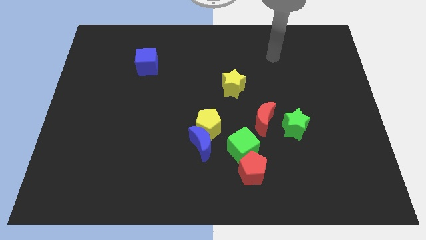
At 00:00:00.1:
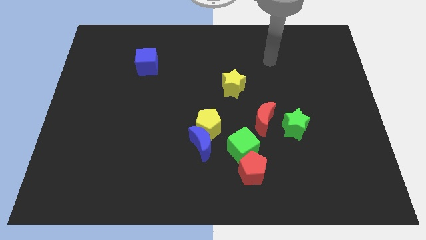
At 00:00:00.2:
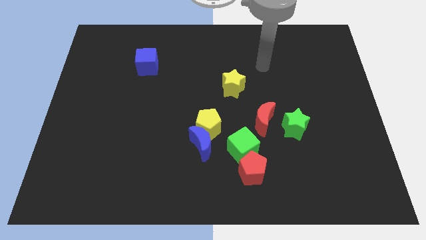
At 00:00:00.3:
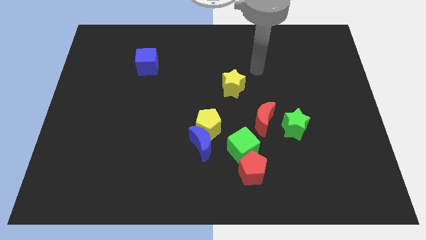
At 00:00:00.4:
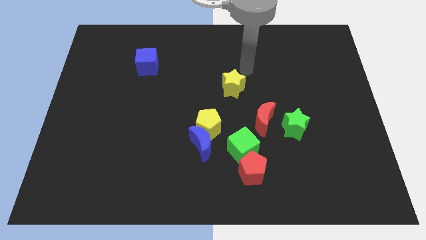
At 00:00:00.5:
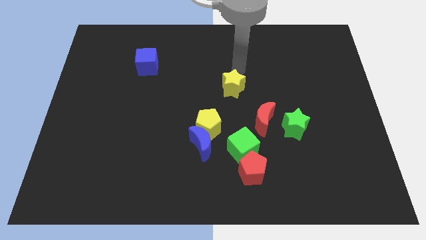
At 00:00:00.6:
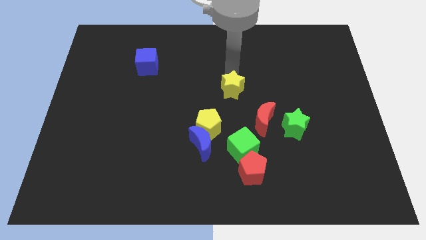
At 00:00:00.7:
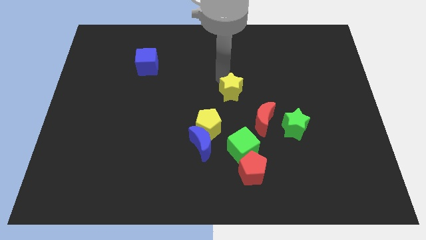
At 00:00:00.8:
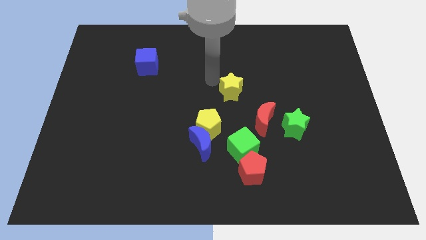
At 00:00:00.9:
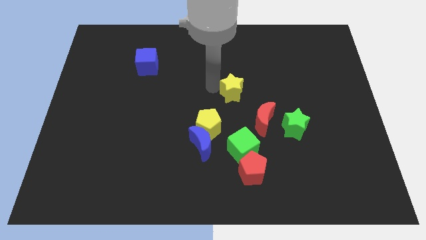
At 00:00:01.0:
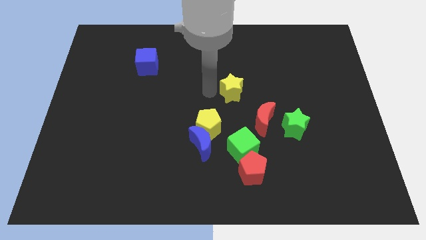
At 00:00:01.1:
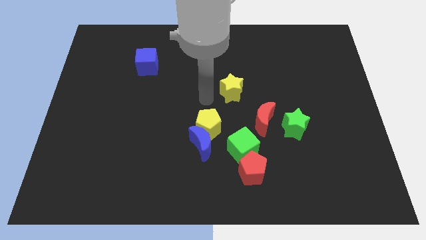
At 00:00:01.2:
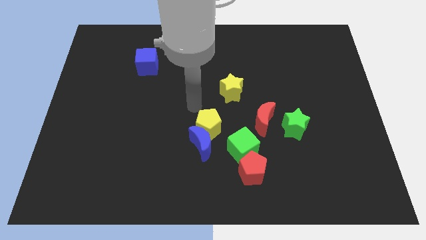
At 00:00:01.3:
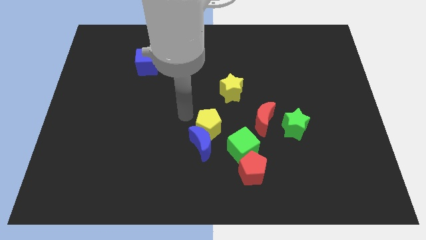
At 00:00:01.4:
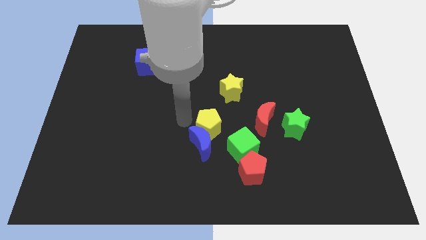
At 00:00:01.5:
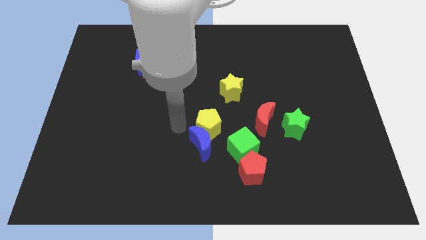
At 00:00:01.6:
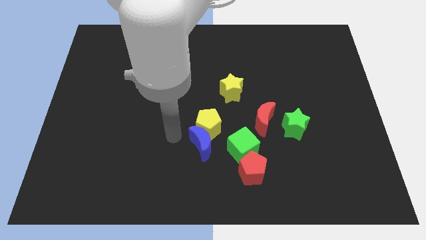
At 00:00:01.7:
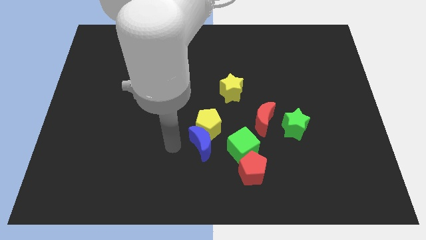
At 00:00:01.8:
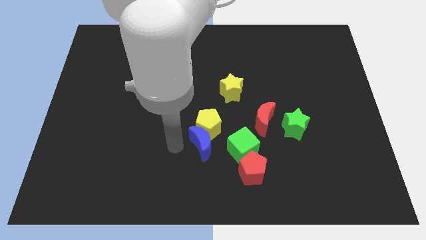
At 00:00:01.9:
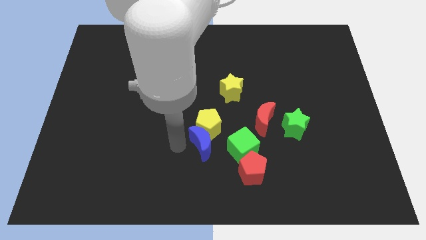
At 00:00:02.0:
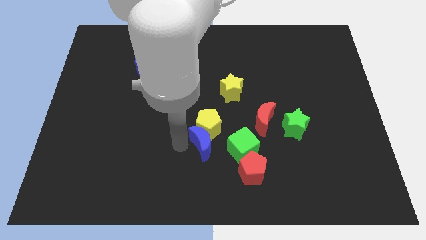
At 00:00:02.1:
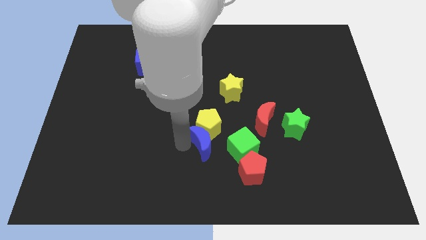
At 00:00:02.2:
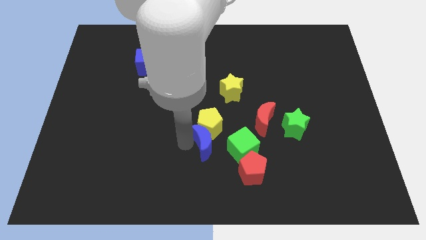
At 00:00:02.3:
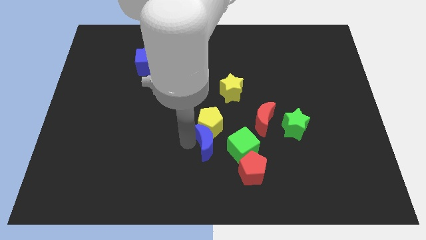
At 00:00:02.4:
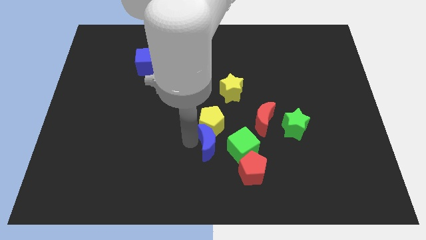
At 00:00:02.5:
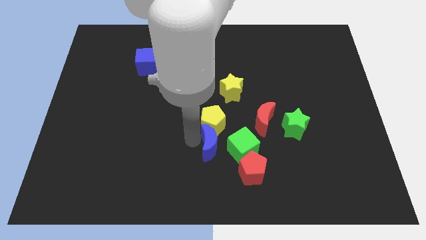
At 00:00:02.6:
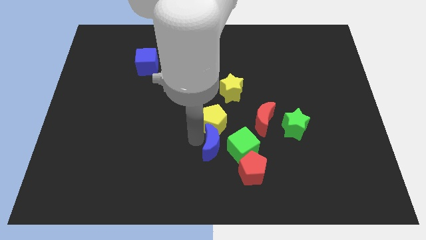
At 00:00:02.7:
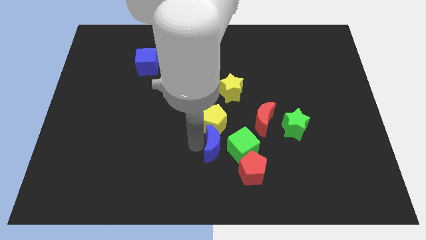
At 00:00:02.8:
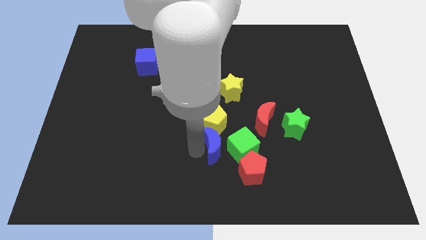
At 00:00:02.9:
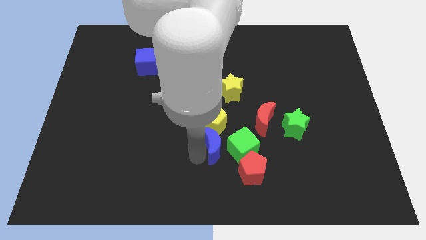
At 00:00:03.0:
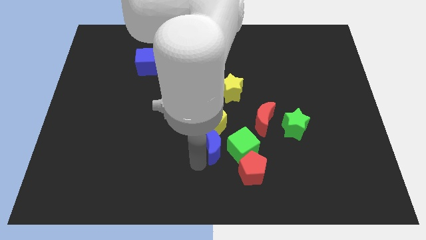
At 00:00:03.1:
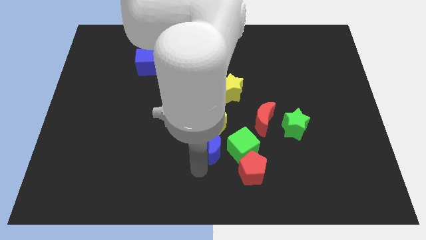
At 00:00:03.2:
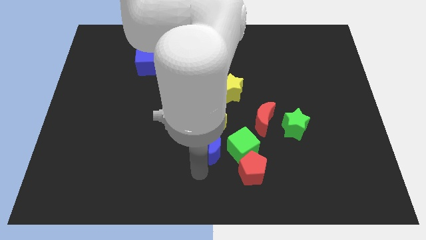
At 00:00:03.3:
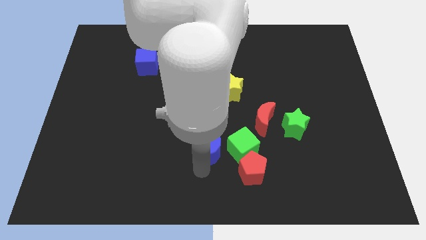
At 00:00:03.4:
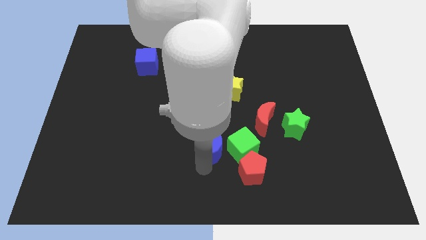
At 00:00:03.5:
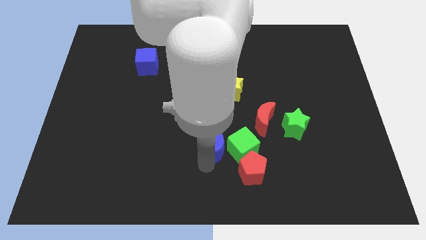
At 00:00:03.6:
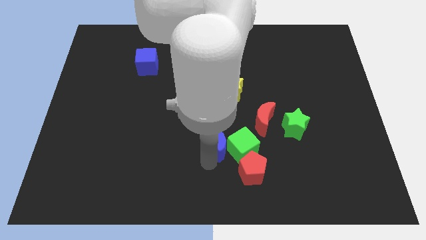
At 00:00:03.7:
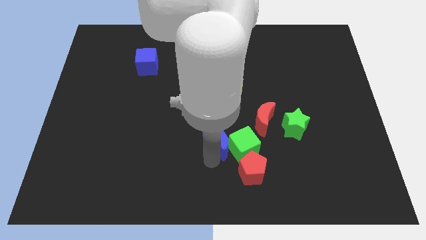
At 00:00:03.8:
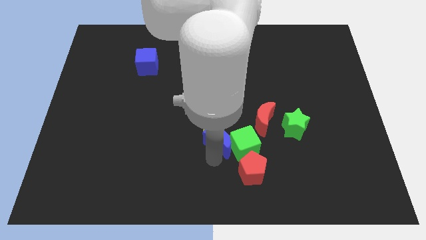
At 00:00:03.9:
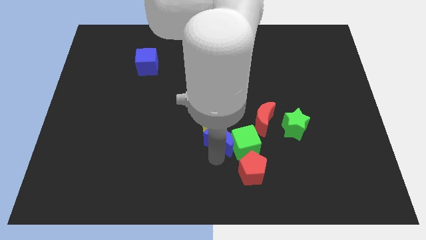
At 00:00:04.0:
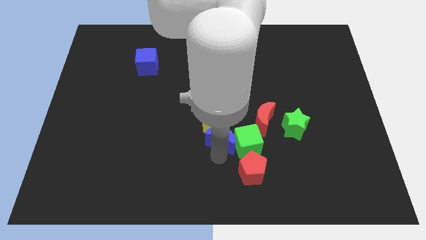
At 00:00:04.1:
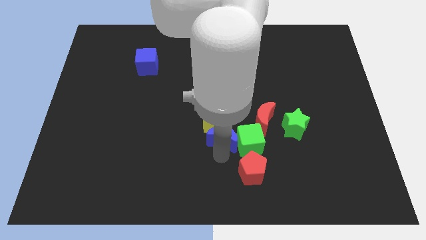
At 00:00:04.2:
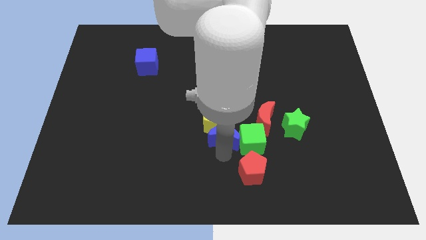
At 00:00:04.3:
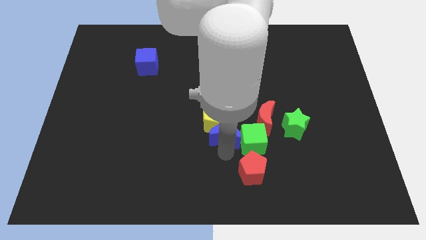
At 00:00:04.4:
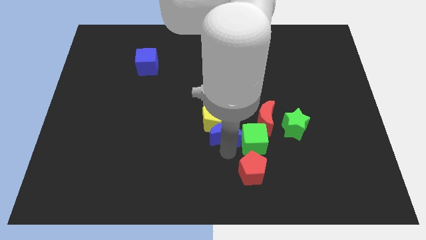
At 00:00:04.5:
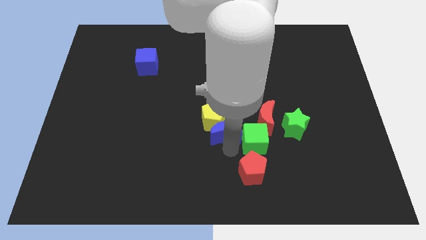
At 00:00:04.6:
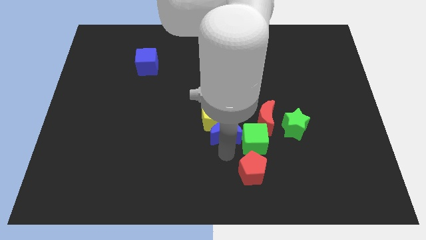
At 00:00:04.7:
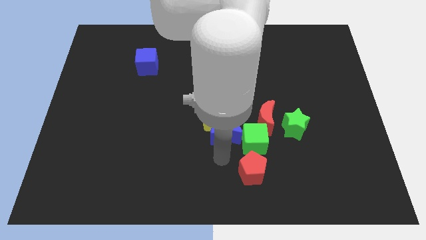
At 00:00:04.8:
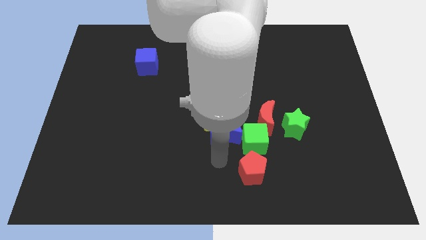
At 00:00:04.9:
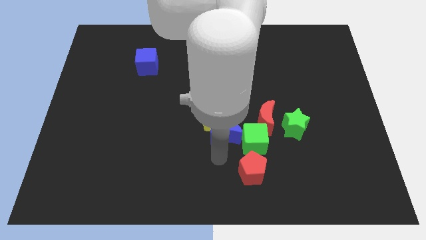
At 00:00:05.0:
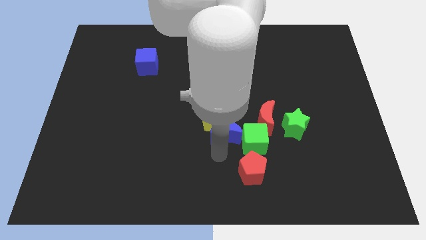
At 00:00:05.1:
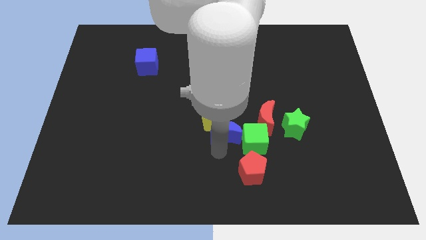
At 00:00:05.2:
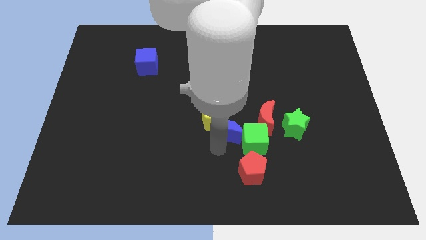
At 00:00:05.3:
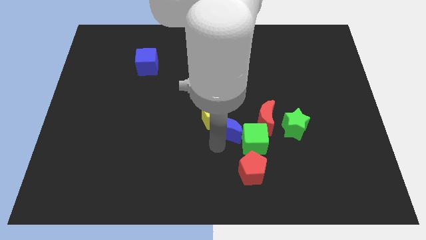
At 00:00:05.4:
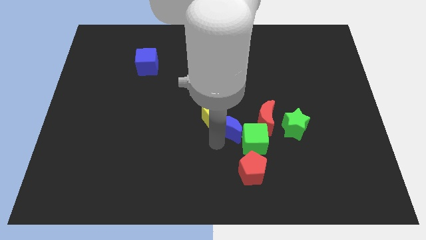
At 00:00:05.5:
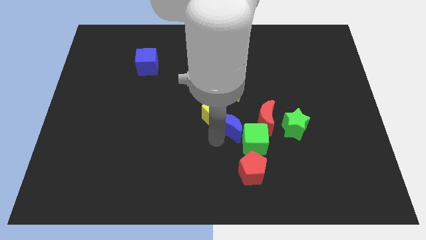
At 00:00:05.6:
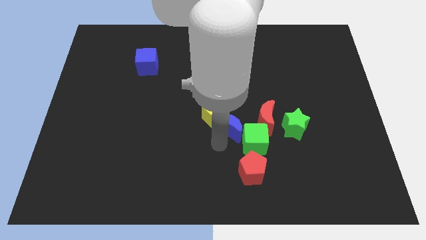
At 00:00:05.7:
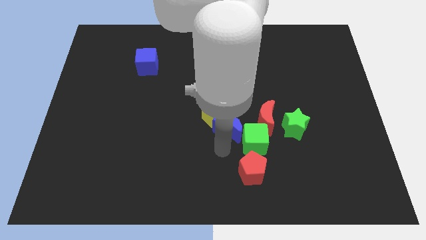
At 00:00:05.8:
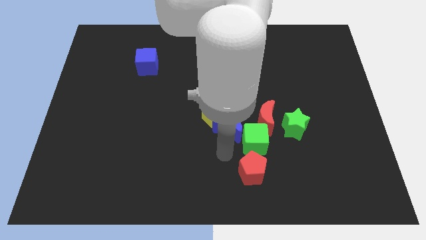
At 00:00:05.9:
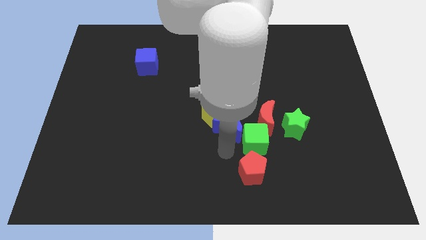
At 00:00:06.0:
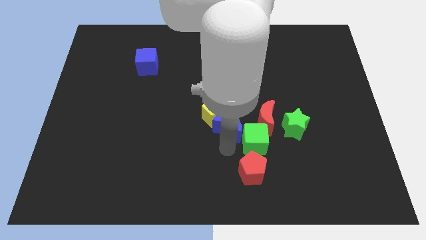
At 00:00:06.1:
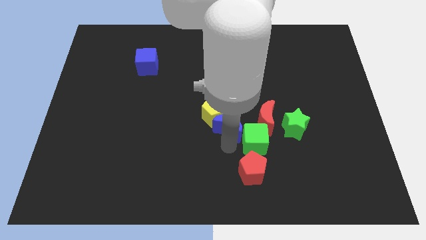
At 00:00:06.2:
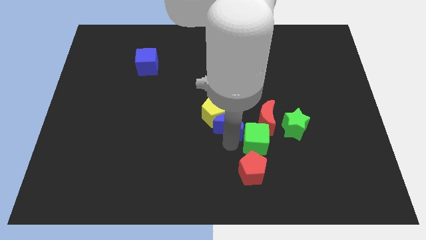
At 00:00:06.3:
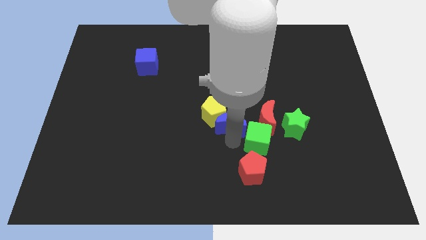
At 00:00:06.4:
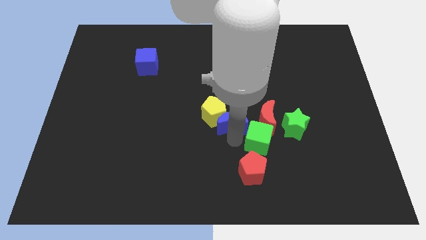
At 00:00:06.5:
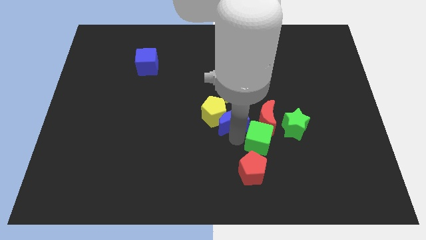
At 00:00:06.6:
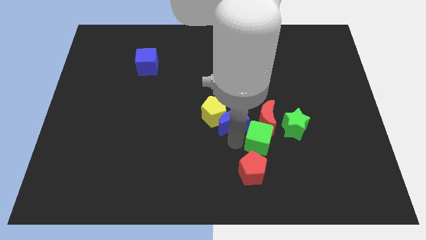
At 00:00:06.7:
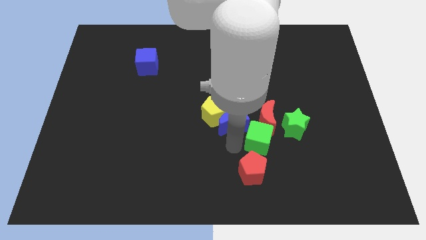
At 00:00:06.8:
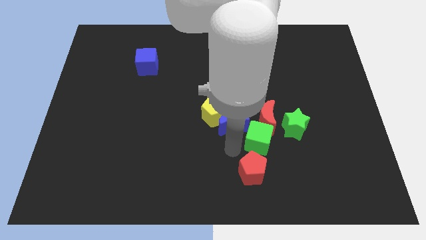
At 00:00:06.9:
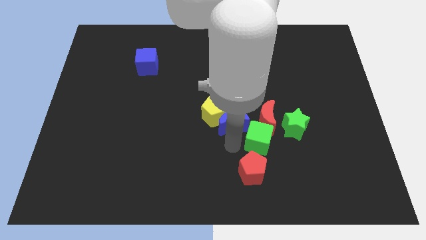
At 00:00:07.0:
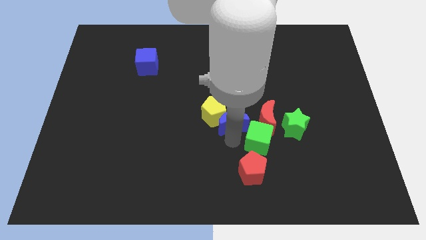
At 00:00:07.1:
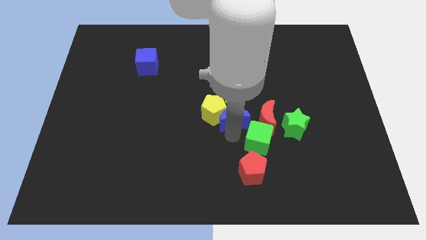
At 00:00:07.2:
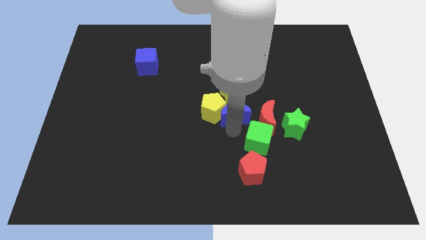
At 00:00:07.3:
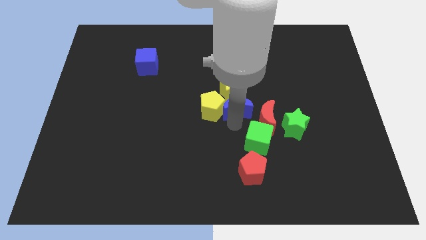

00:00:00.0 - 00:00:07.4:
slide the blue moon next to the yellow star
